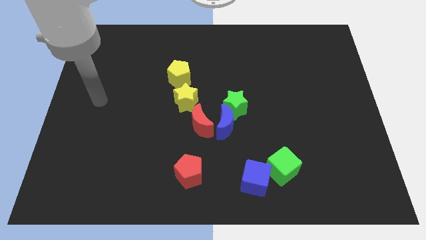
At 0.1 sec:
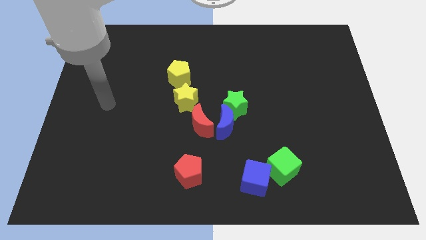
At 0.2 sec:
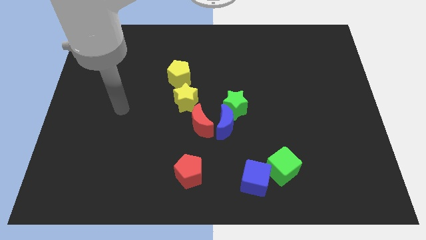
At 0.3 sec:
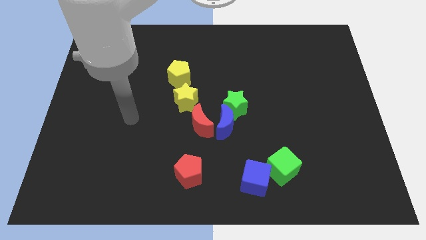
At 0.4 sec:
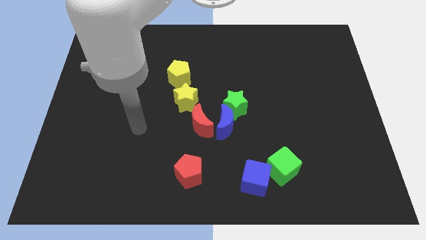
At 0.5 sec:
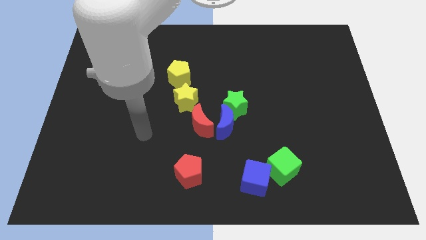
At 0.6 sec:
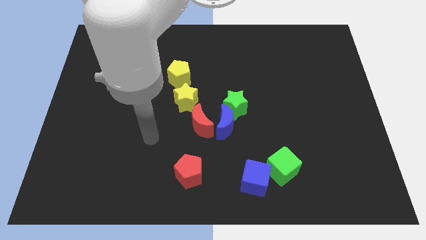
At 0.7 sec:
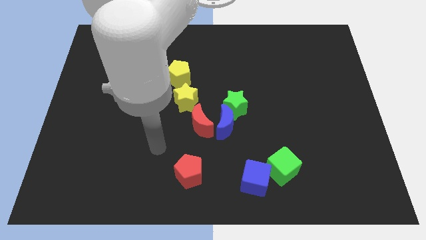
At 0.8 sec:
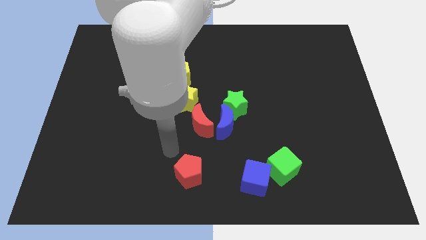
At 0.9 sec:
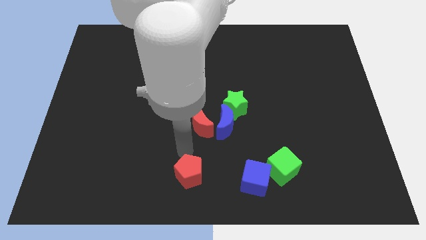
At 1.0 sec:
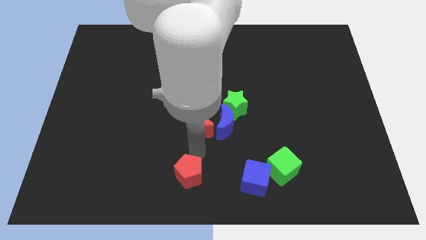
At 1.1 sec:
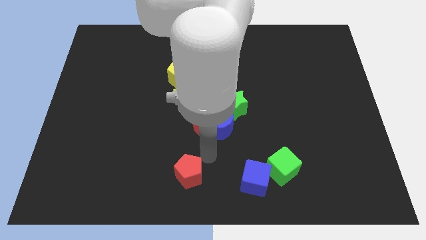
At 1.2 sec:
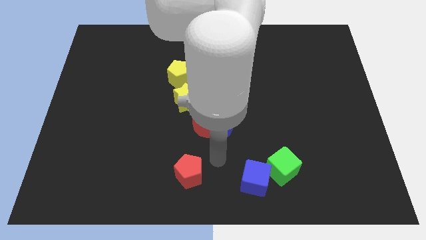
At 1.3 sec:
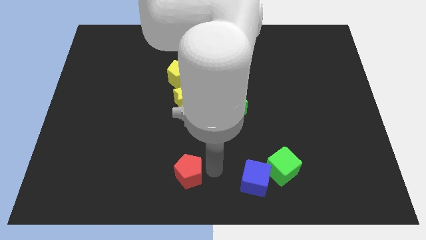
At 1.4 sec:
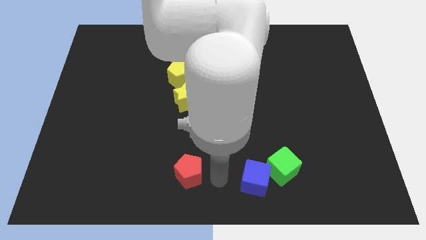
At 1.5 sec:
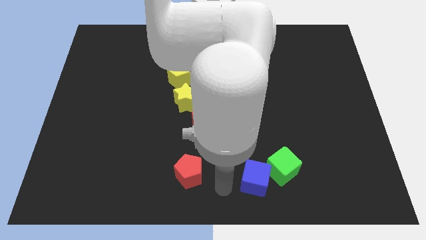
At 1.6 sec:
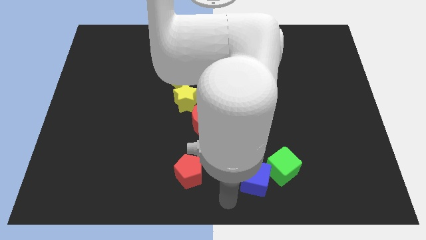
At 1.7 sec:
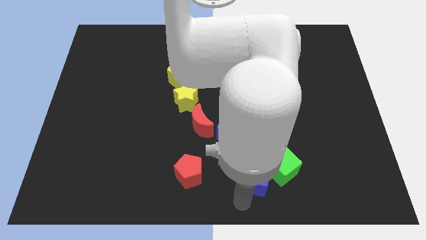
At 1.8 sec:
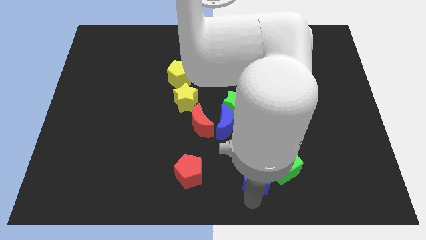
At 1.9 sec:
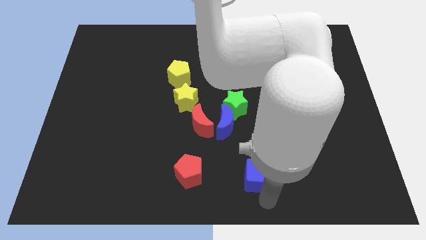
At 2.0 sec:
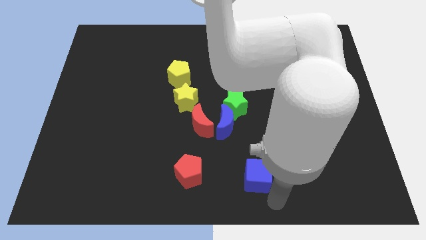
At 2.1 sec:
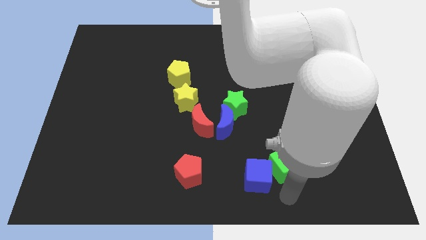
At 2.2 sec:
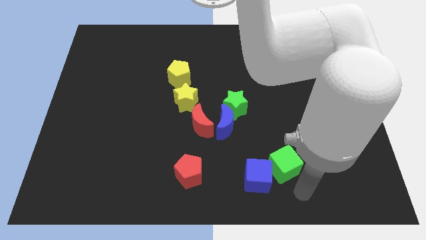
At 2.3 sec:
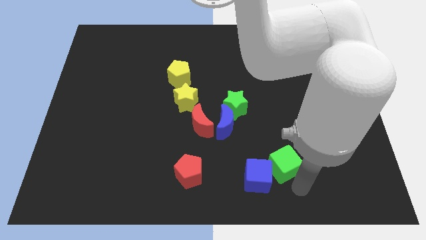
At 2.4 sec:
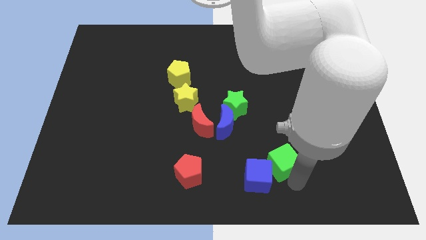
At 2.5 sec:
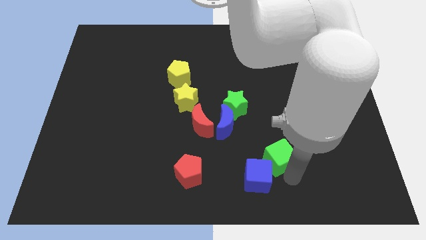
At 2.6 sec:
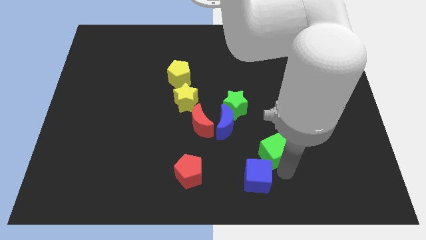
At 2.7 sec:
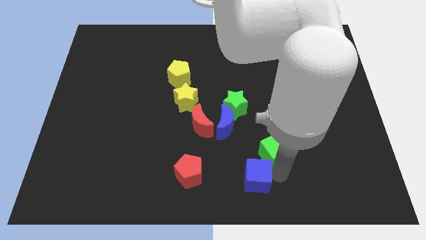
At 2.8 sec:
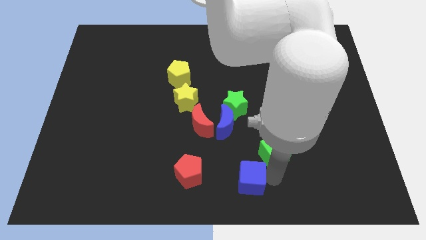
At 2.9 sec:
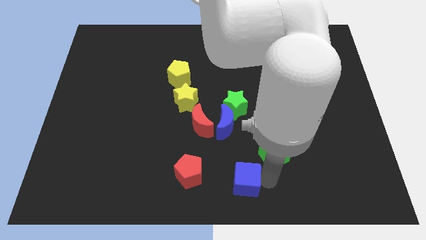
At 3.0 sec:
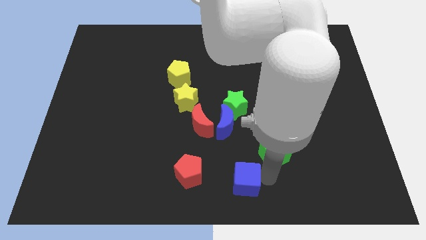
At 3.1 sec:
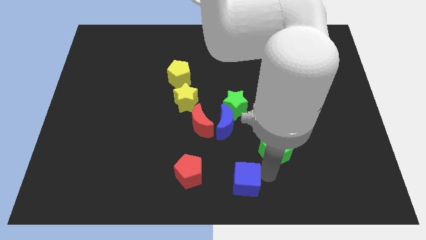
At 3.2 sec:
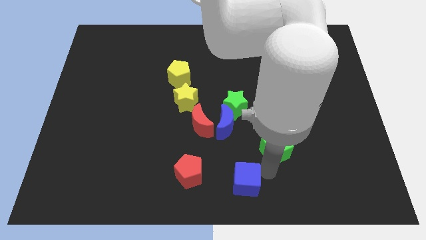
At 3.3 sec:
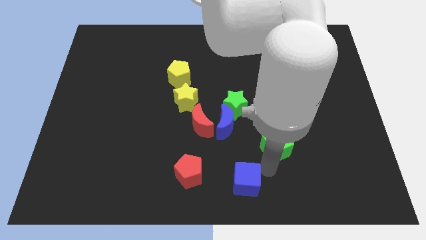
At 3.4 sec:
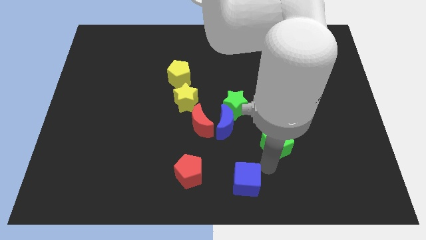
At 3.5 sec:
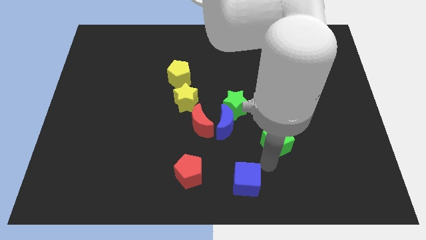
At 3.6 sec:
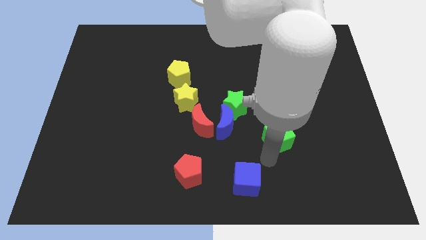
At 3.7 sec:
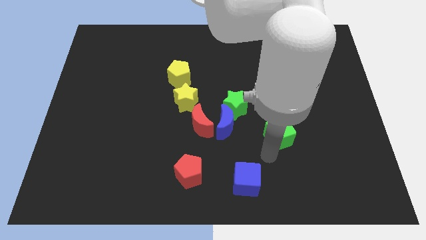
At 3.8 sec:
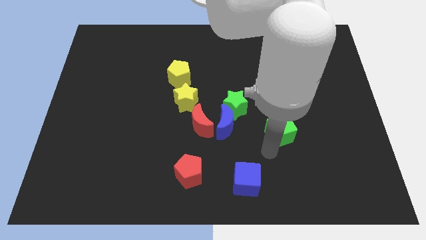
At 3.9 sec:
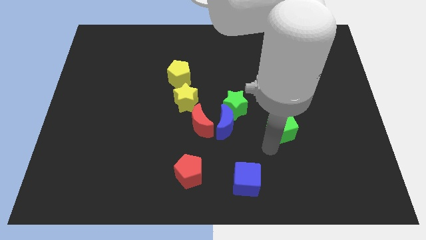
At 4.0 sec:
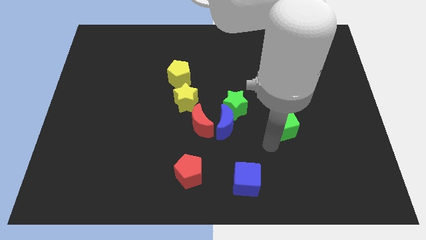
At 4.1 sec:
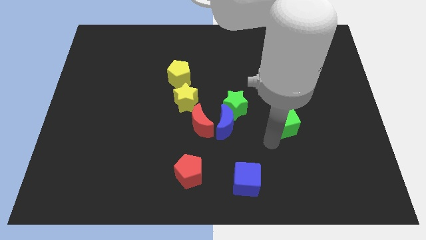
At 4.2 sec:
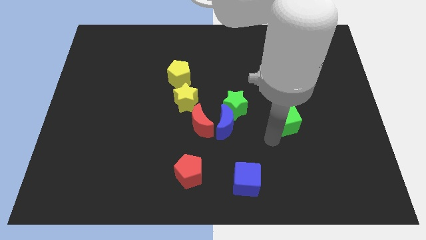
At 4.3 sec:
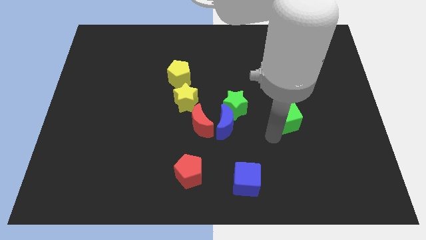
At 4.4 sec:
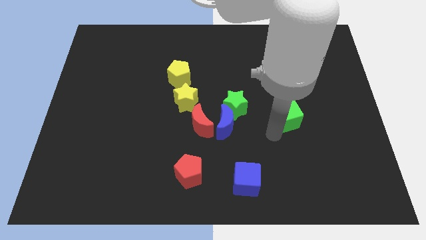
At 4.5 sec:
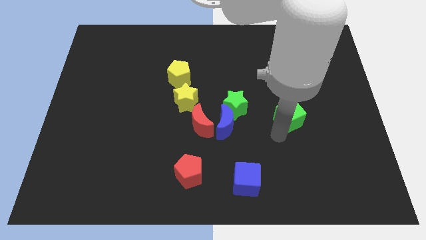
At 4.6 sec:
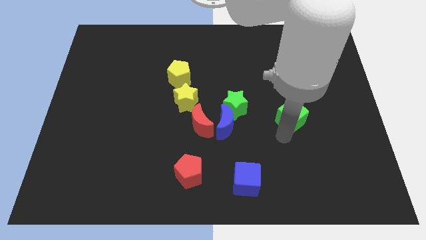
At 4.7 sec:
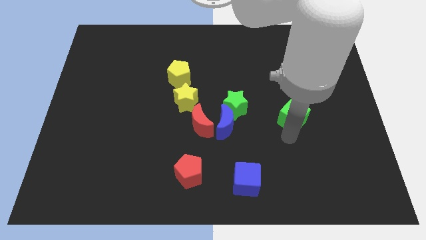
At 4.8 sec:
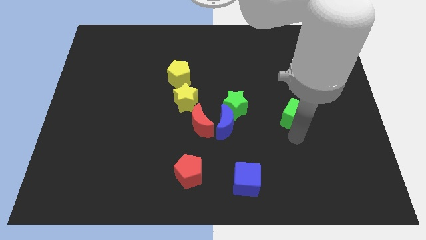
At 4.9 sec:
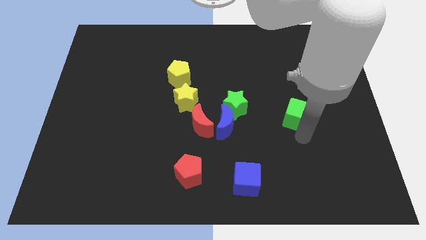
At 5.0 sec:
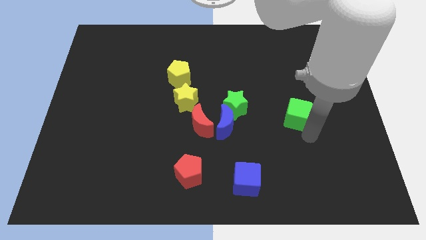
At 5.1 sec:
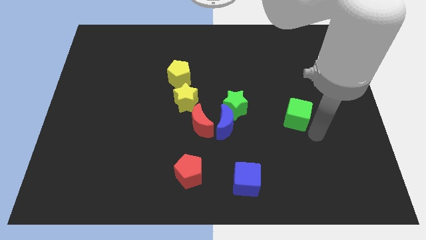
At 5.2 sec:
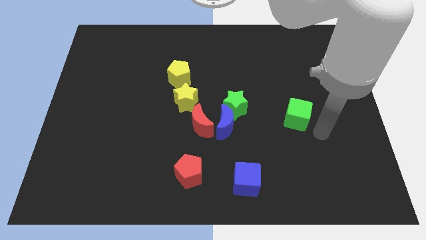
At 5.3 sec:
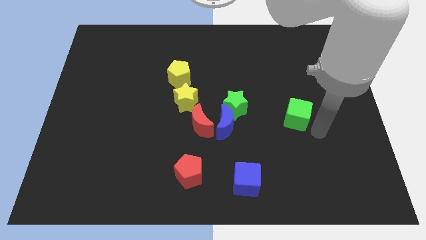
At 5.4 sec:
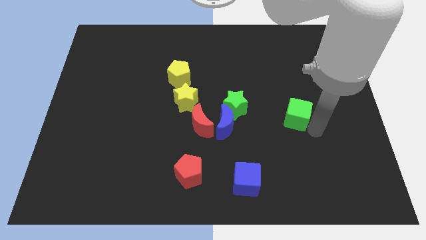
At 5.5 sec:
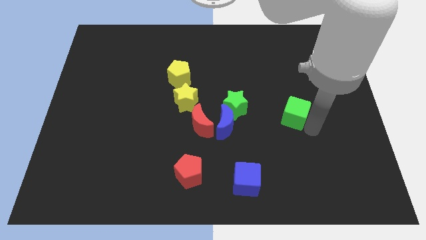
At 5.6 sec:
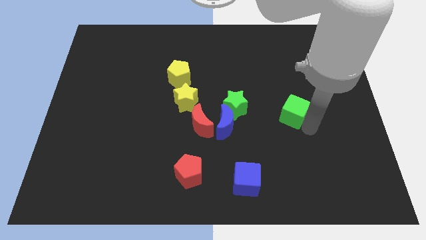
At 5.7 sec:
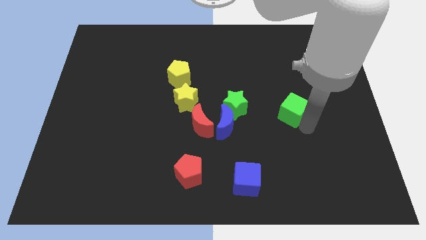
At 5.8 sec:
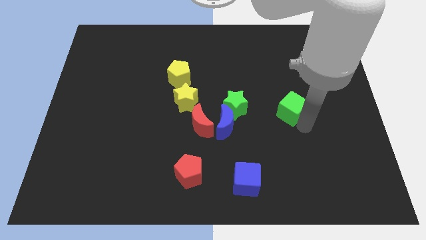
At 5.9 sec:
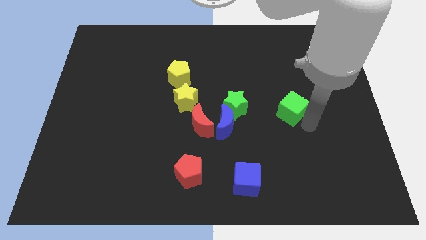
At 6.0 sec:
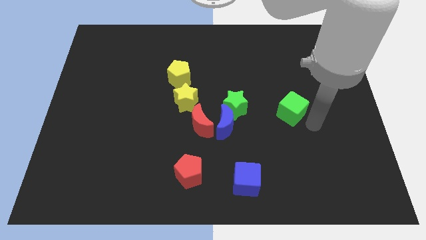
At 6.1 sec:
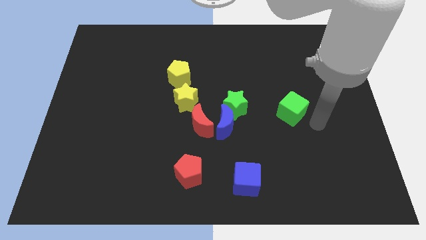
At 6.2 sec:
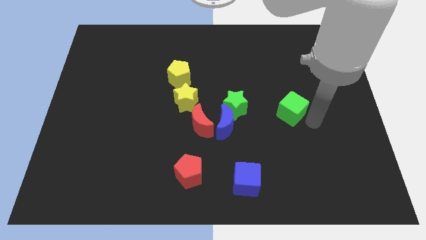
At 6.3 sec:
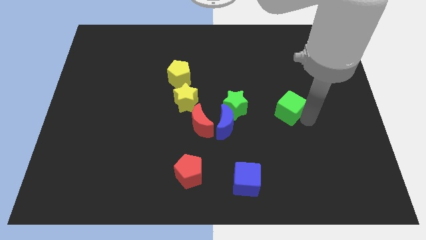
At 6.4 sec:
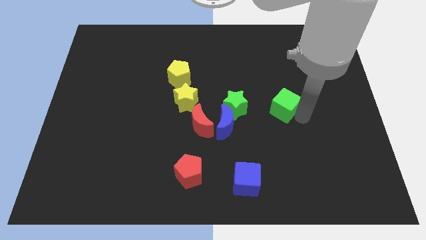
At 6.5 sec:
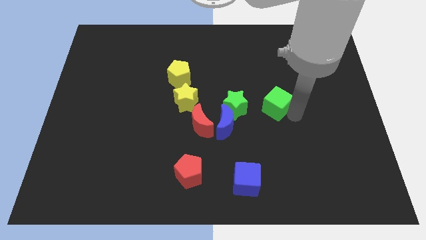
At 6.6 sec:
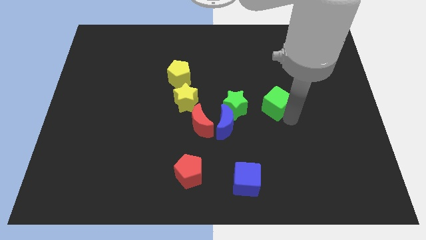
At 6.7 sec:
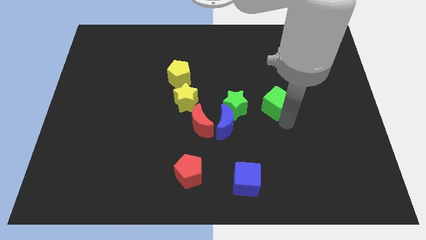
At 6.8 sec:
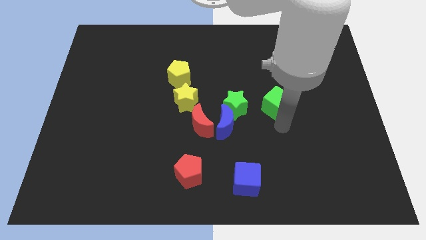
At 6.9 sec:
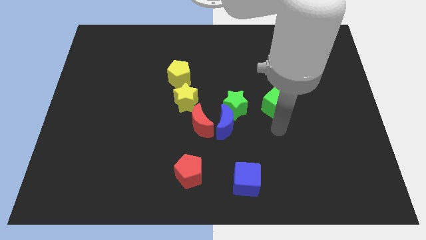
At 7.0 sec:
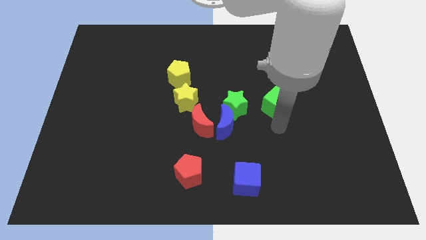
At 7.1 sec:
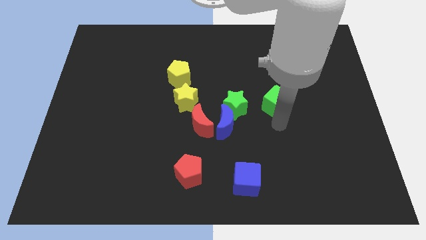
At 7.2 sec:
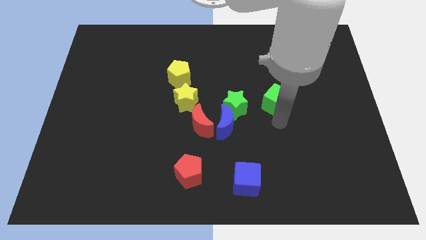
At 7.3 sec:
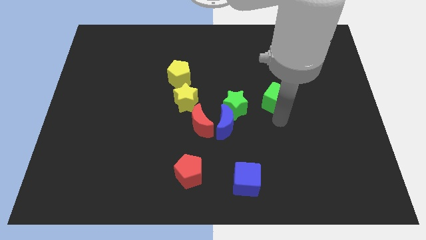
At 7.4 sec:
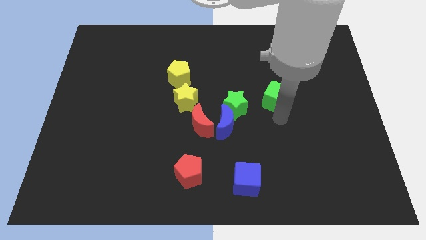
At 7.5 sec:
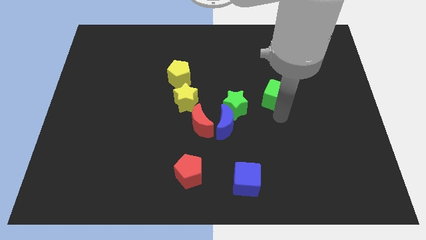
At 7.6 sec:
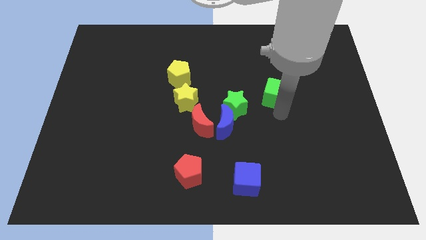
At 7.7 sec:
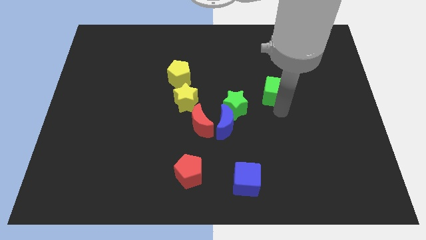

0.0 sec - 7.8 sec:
push the green cube upwards
